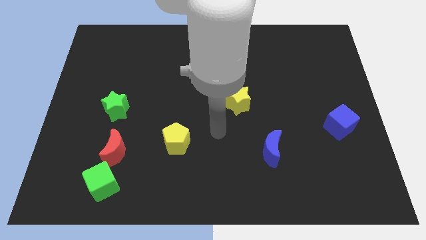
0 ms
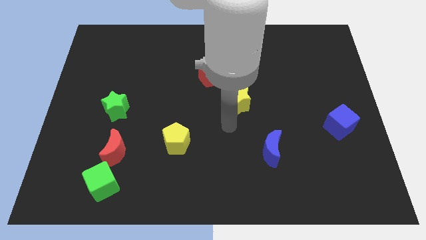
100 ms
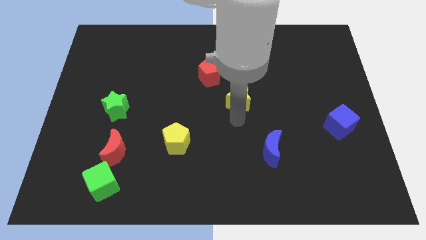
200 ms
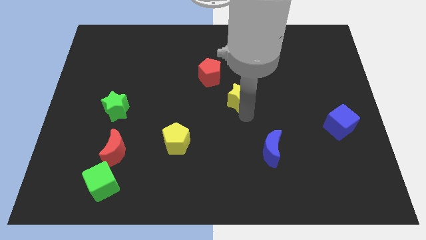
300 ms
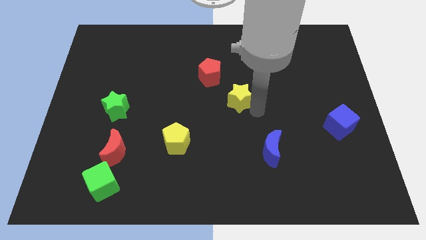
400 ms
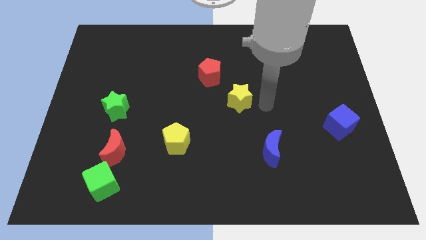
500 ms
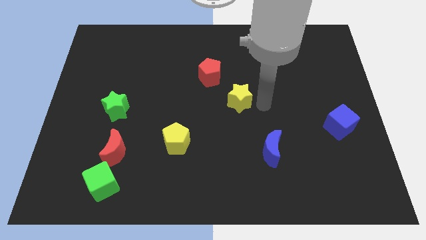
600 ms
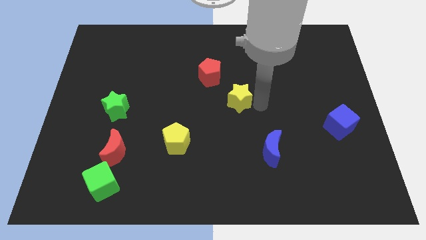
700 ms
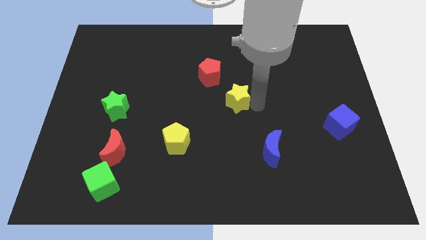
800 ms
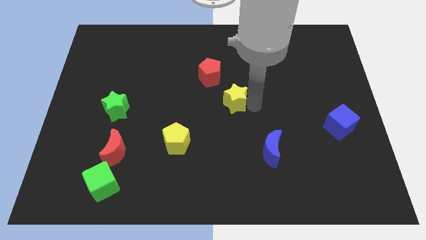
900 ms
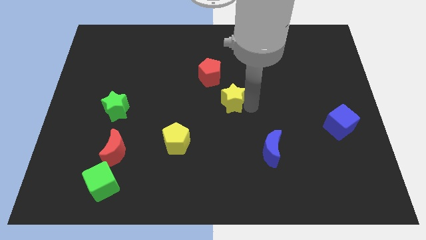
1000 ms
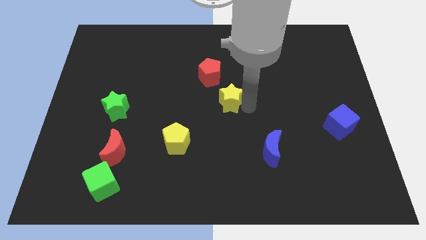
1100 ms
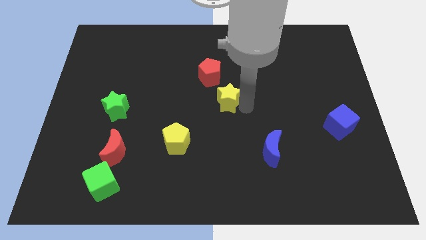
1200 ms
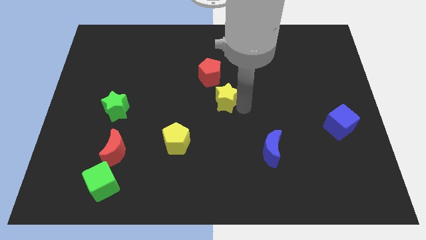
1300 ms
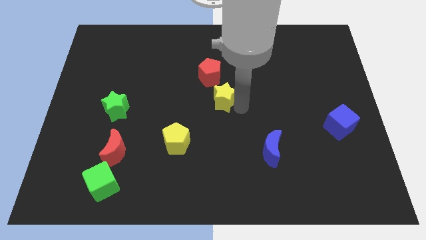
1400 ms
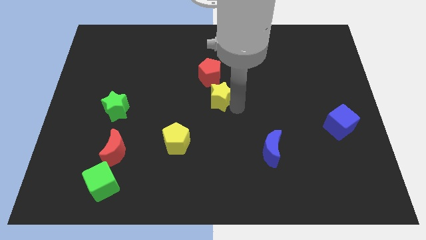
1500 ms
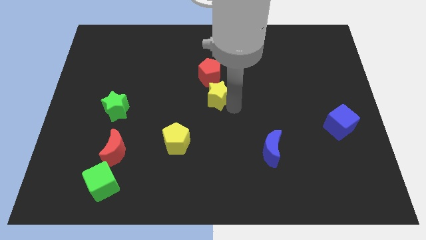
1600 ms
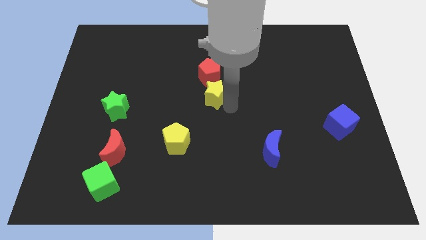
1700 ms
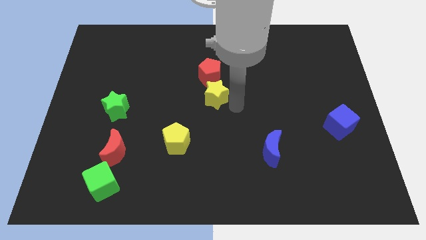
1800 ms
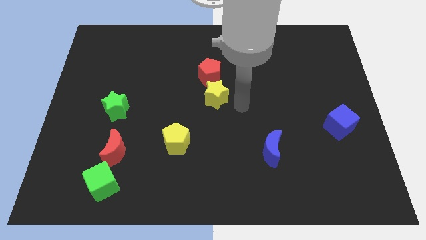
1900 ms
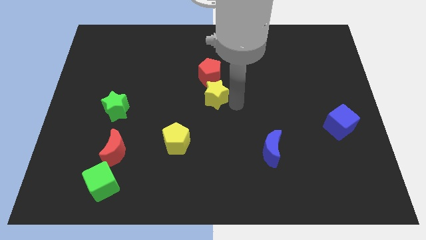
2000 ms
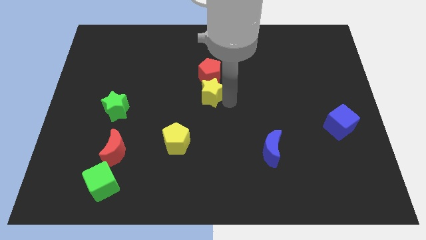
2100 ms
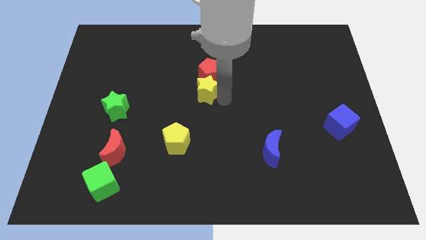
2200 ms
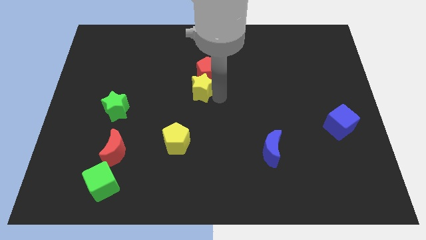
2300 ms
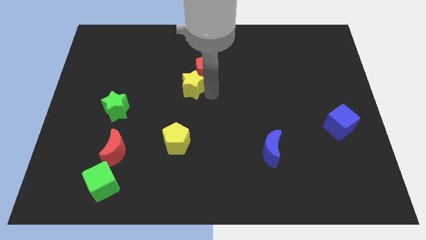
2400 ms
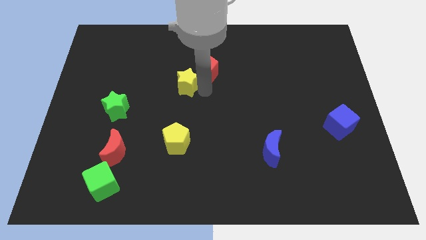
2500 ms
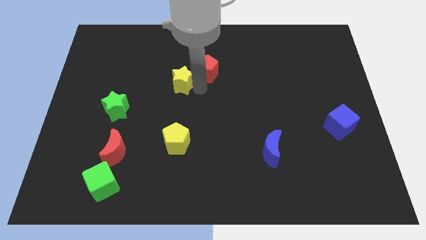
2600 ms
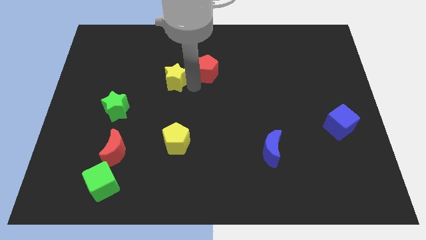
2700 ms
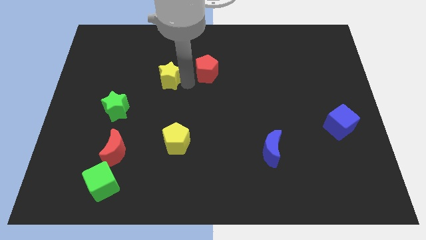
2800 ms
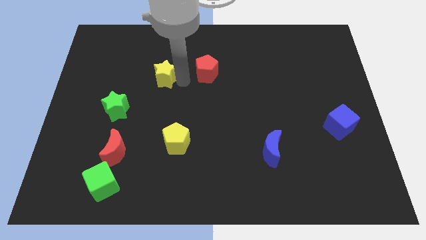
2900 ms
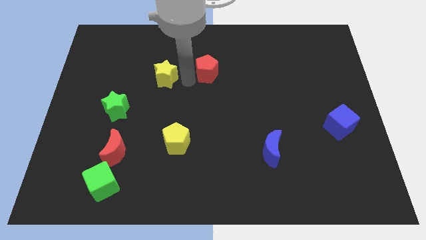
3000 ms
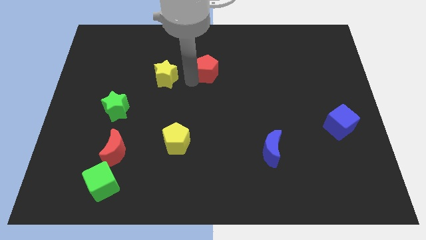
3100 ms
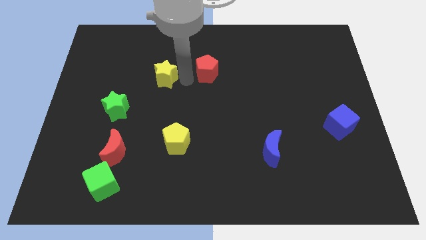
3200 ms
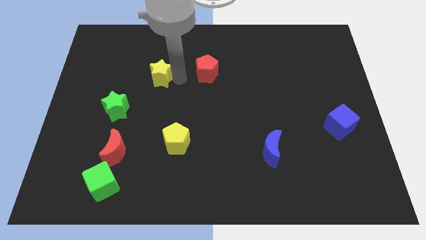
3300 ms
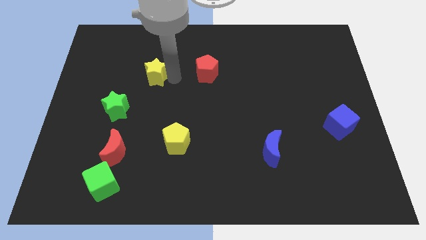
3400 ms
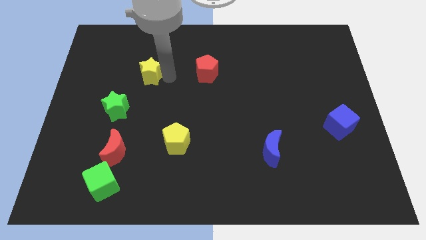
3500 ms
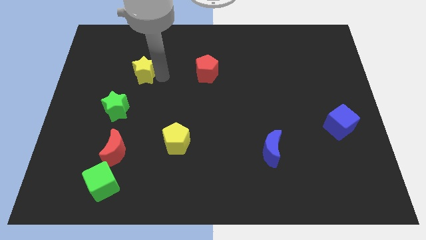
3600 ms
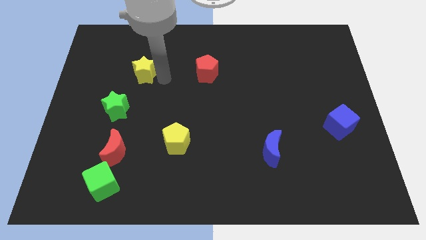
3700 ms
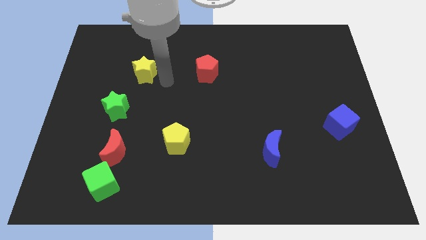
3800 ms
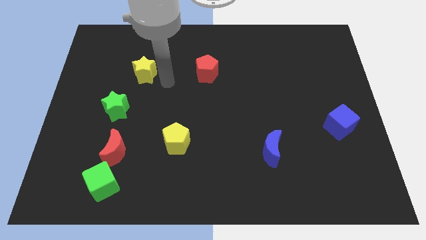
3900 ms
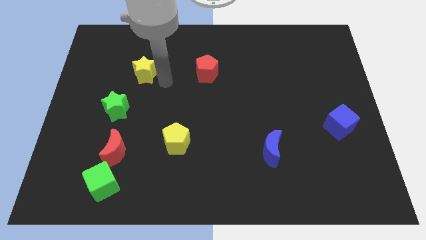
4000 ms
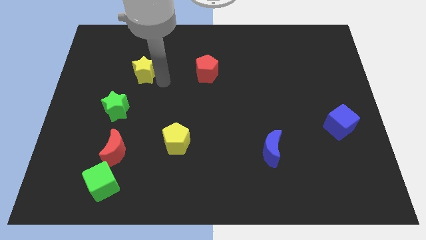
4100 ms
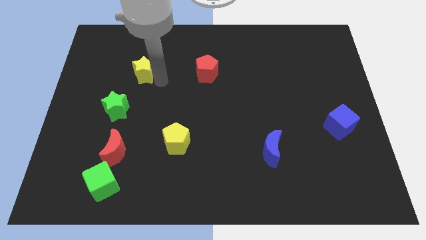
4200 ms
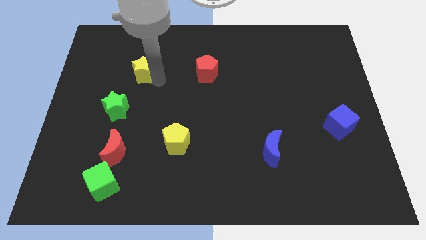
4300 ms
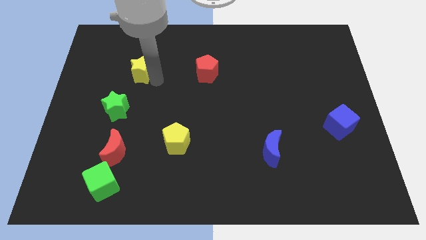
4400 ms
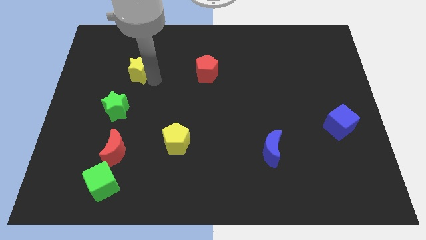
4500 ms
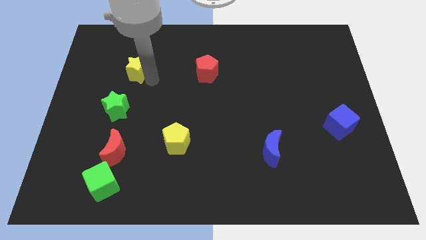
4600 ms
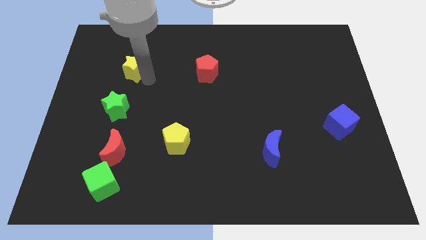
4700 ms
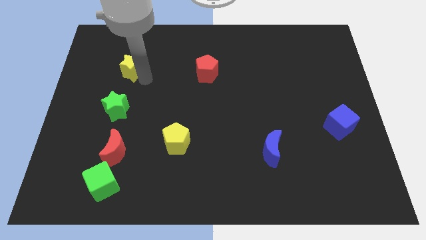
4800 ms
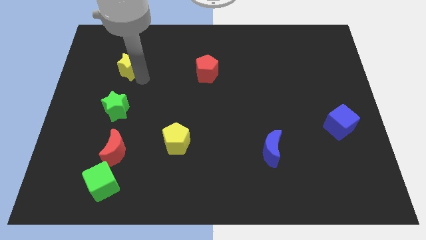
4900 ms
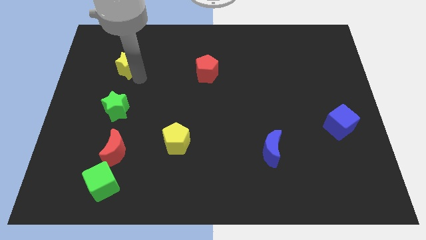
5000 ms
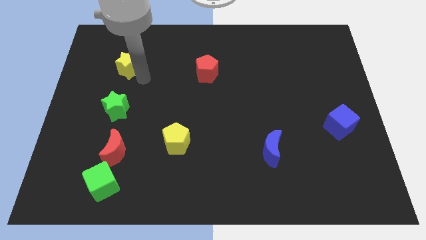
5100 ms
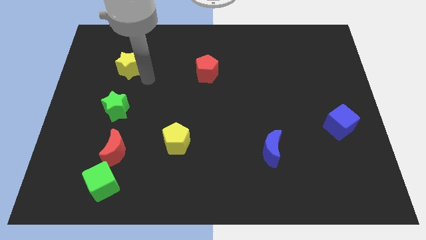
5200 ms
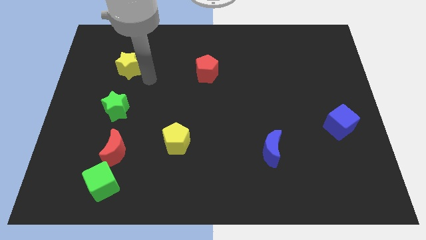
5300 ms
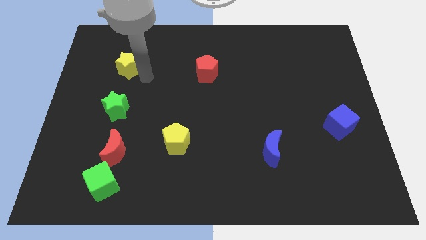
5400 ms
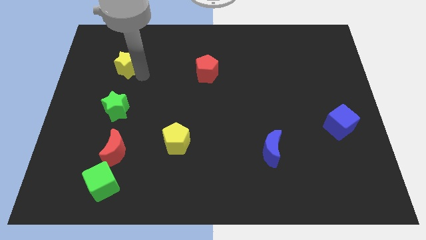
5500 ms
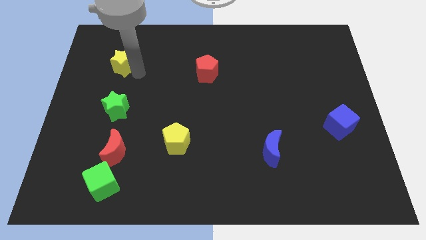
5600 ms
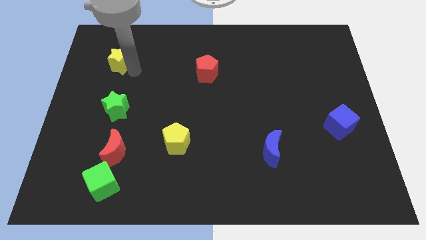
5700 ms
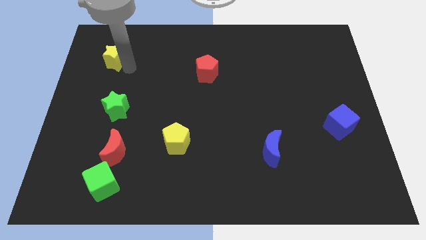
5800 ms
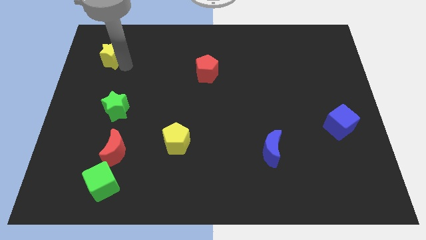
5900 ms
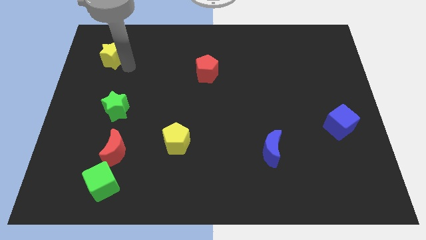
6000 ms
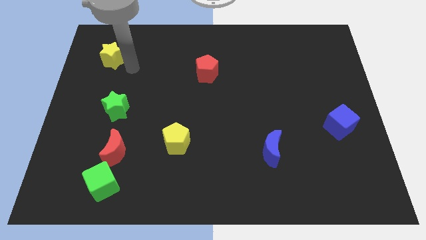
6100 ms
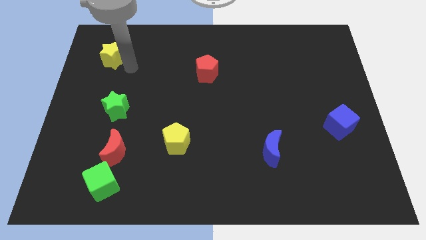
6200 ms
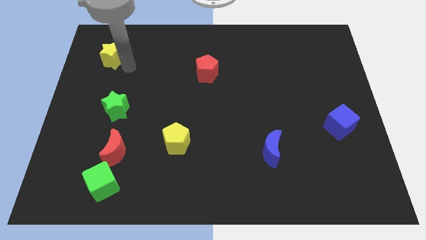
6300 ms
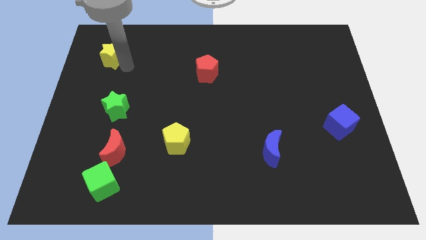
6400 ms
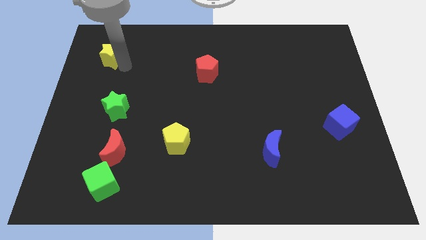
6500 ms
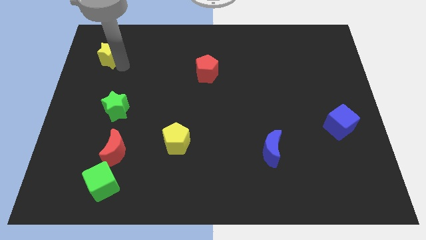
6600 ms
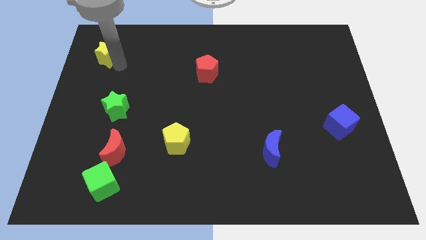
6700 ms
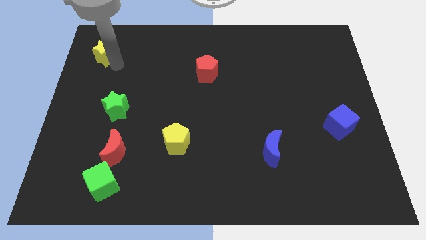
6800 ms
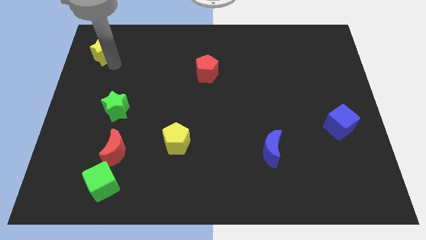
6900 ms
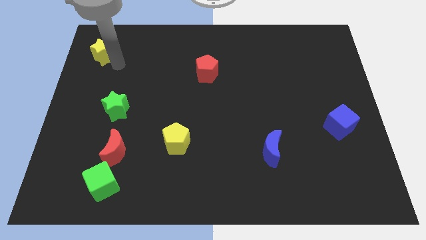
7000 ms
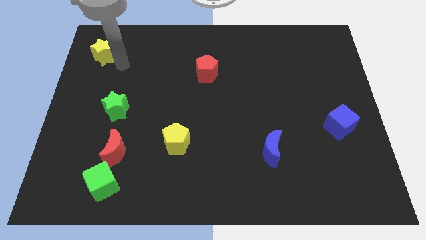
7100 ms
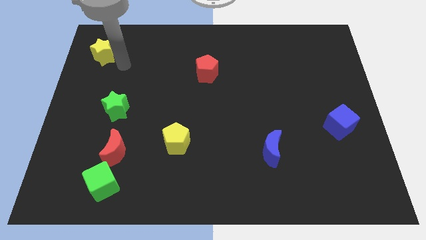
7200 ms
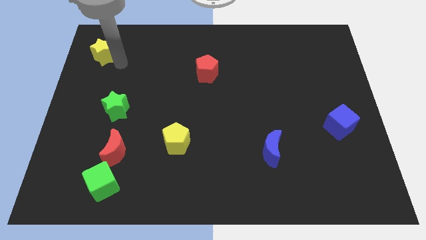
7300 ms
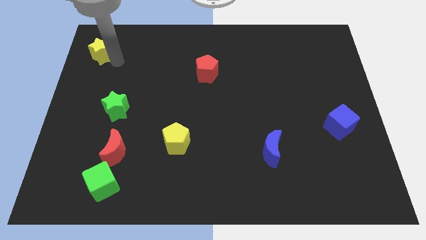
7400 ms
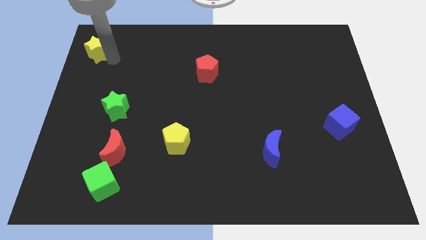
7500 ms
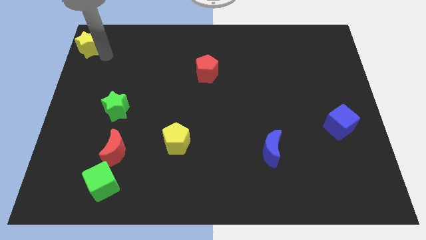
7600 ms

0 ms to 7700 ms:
put the yellow star to the top left
